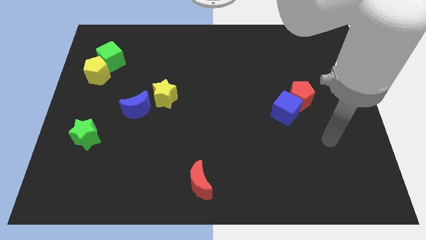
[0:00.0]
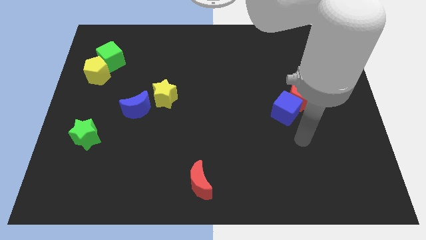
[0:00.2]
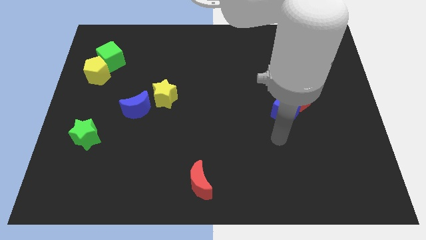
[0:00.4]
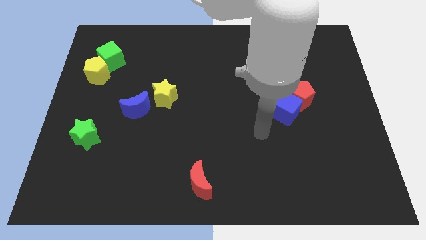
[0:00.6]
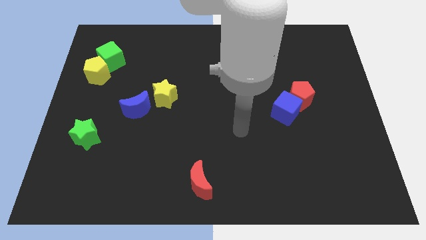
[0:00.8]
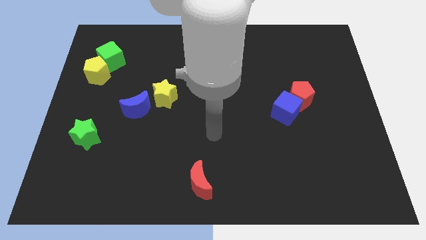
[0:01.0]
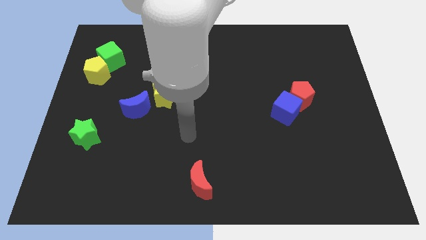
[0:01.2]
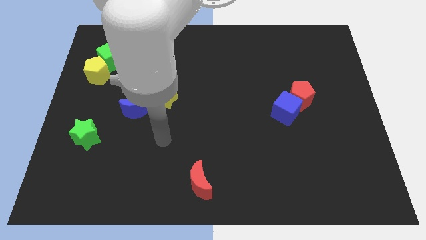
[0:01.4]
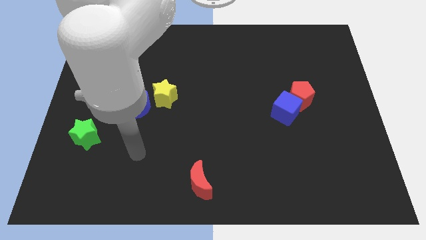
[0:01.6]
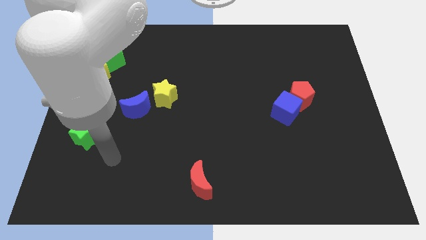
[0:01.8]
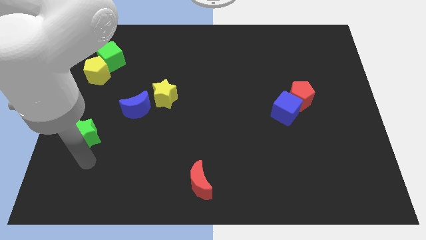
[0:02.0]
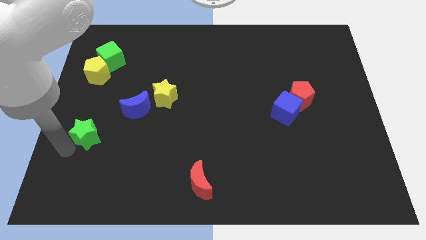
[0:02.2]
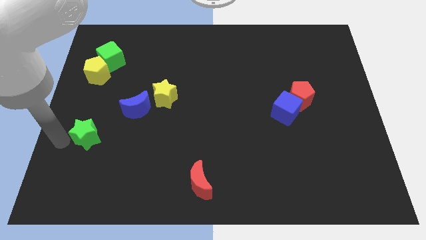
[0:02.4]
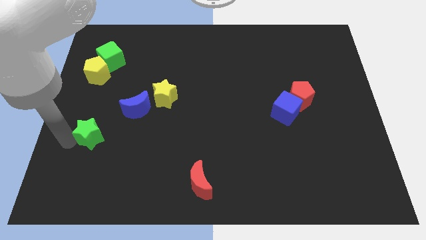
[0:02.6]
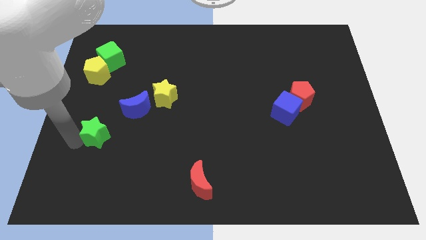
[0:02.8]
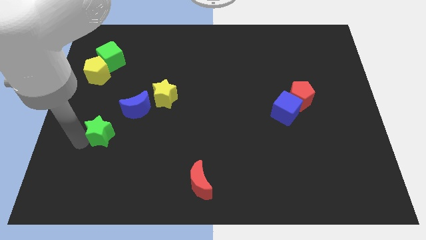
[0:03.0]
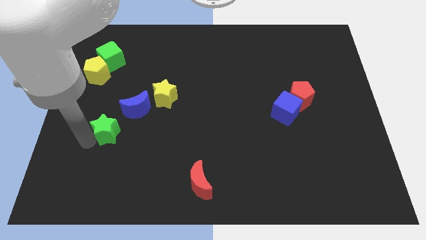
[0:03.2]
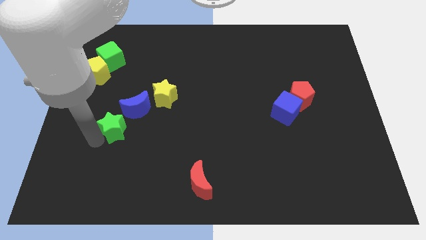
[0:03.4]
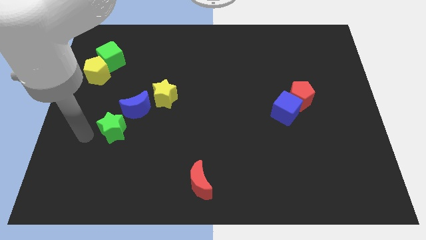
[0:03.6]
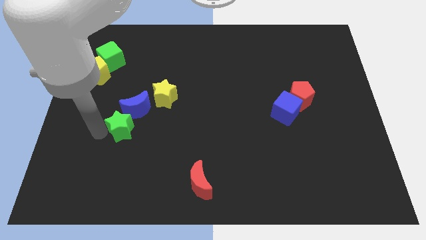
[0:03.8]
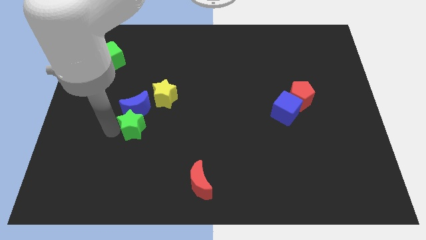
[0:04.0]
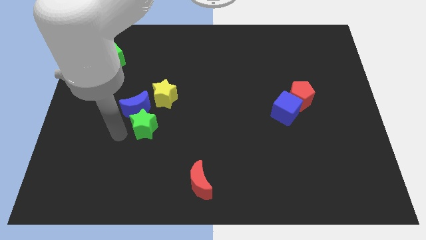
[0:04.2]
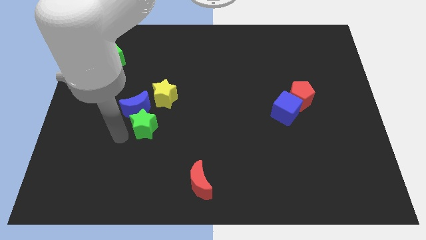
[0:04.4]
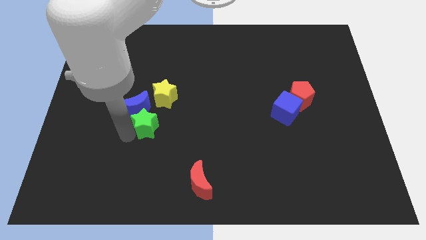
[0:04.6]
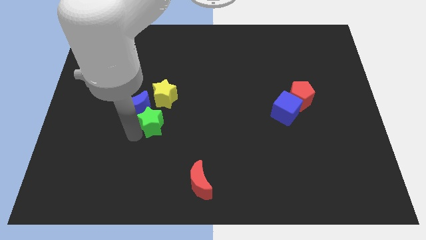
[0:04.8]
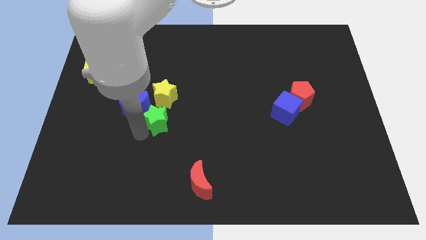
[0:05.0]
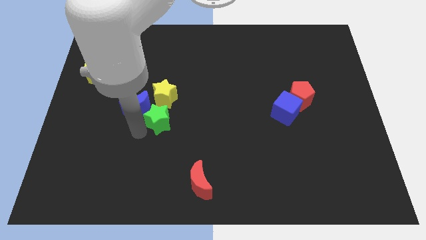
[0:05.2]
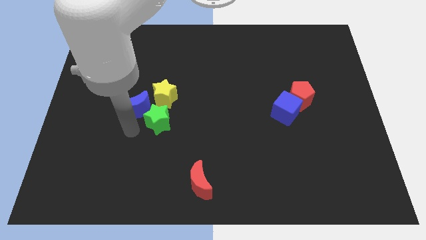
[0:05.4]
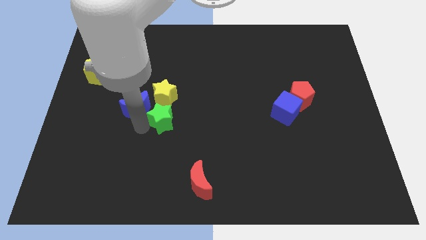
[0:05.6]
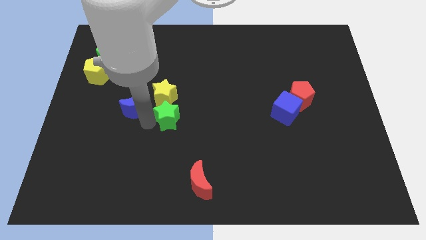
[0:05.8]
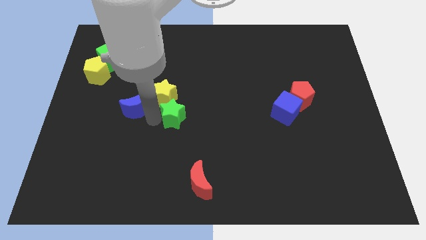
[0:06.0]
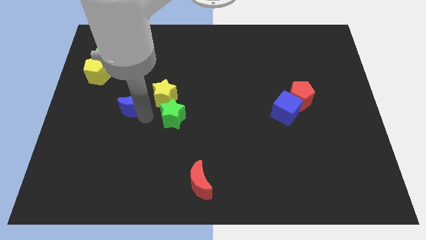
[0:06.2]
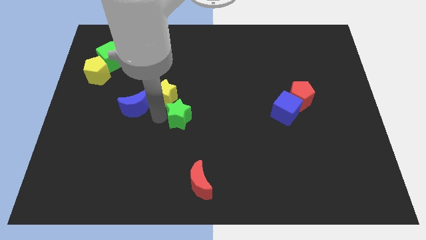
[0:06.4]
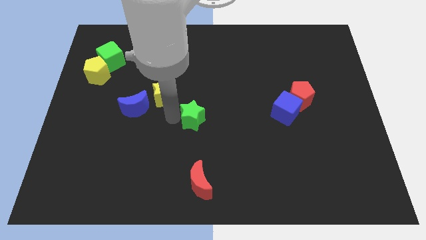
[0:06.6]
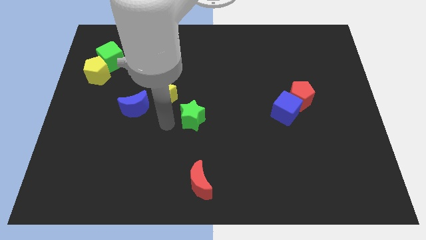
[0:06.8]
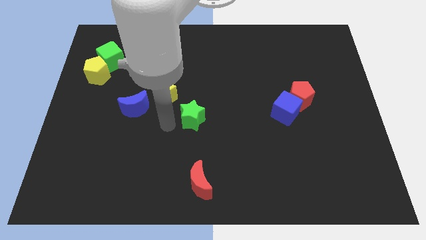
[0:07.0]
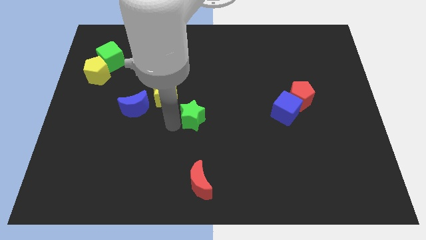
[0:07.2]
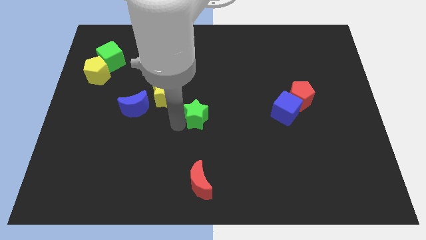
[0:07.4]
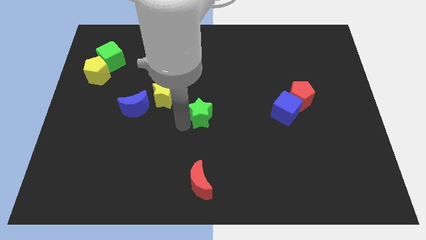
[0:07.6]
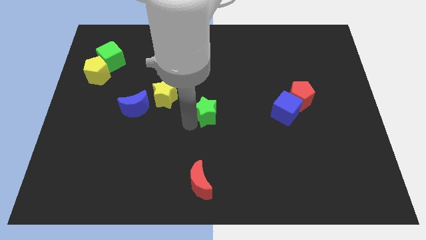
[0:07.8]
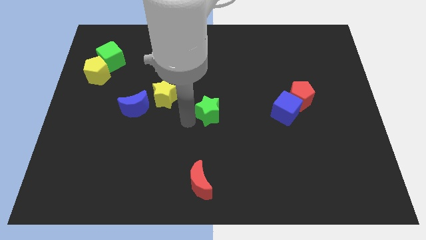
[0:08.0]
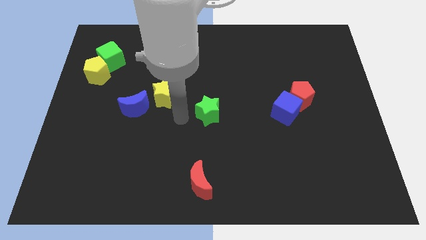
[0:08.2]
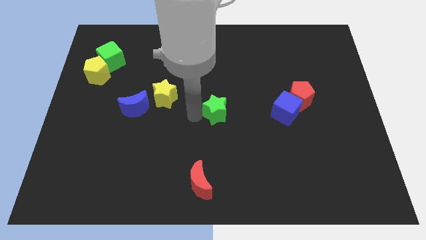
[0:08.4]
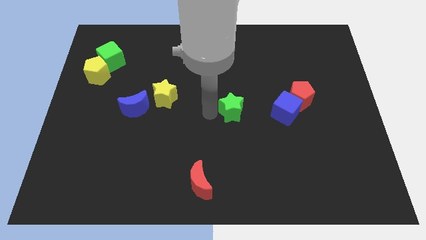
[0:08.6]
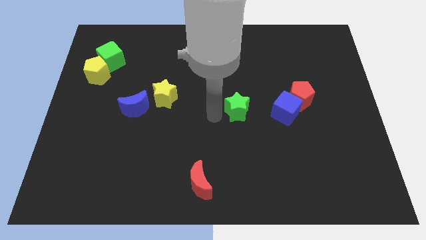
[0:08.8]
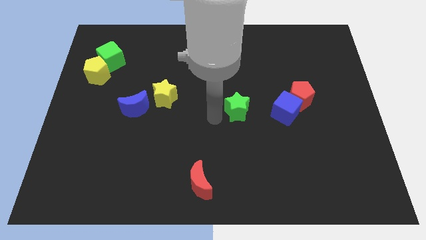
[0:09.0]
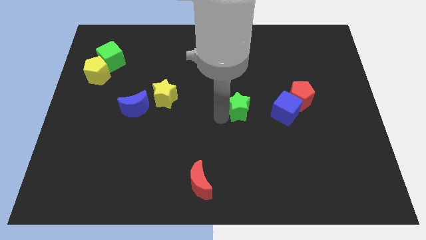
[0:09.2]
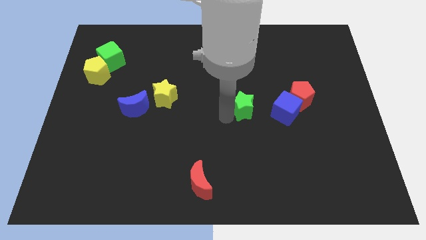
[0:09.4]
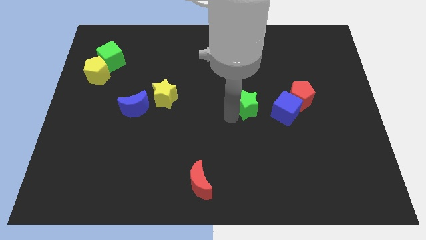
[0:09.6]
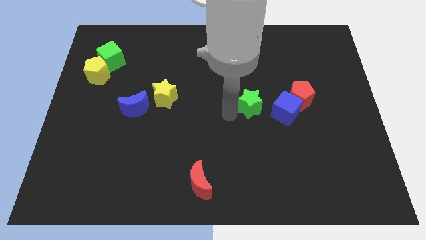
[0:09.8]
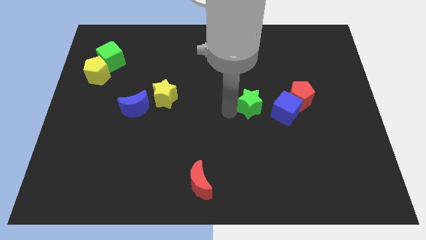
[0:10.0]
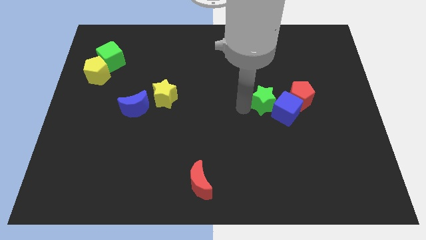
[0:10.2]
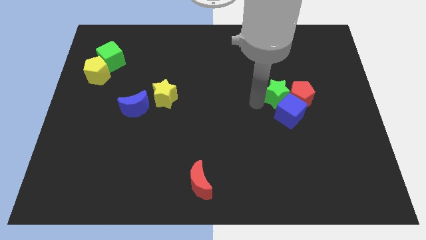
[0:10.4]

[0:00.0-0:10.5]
put the green star close to the red pentagon

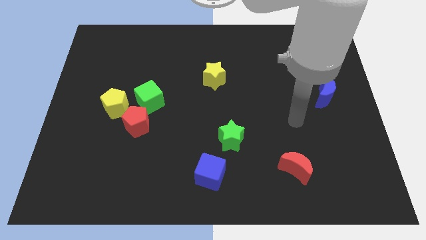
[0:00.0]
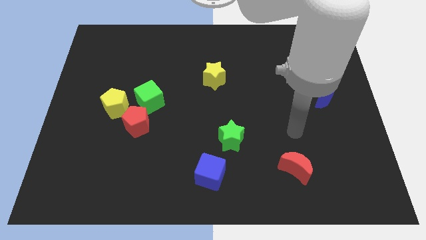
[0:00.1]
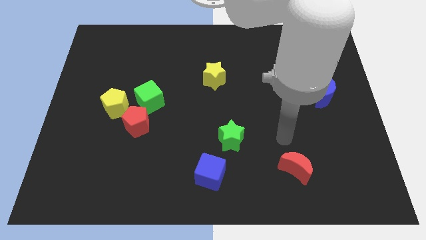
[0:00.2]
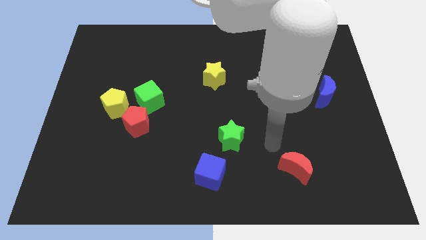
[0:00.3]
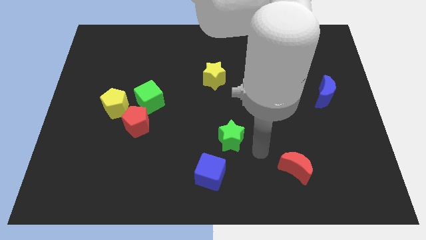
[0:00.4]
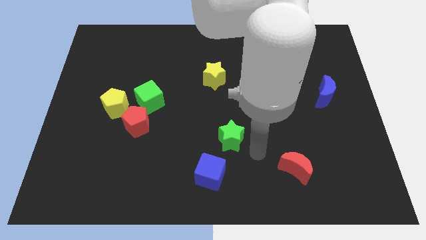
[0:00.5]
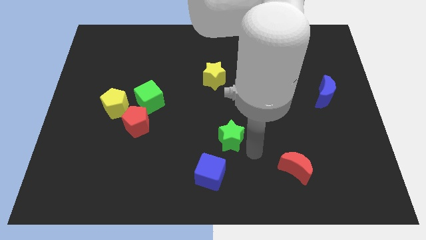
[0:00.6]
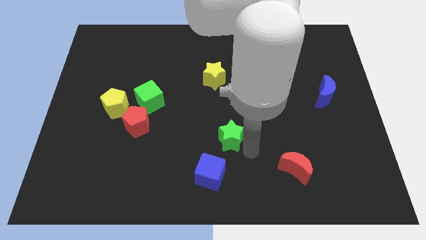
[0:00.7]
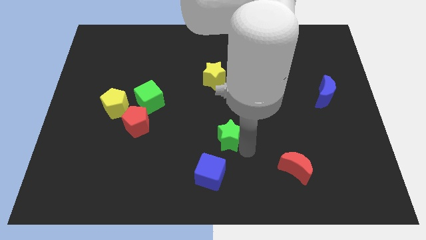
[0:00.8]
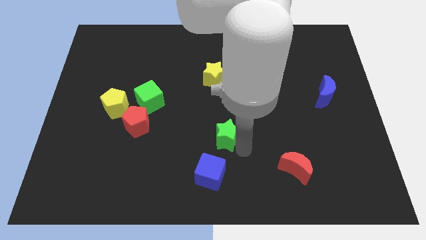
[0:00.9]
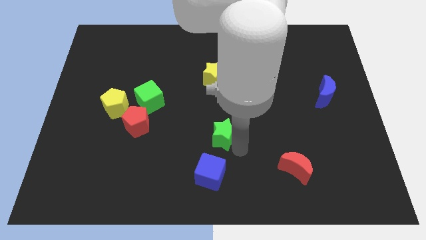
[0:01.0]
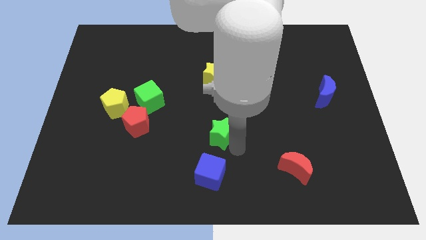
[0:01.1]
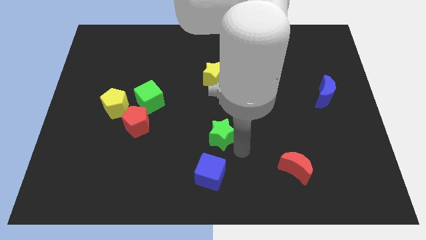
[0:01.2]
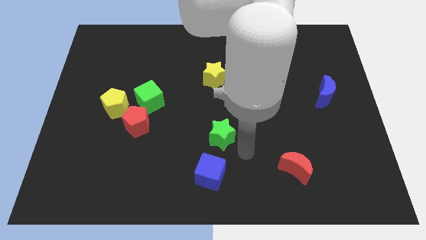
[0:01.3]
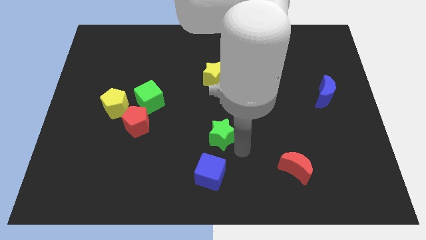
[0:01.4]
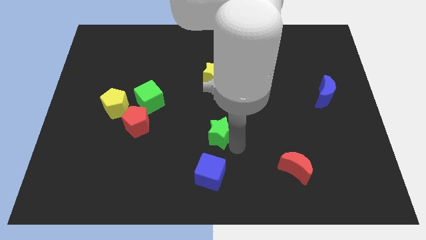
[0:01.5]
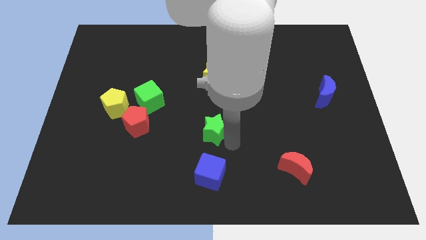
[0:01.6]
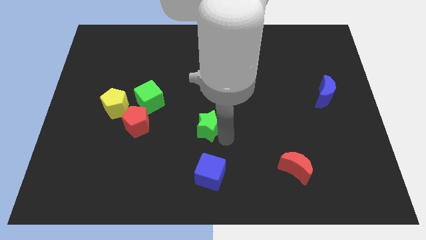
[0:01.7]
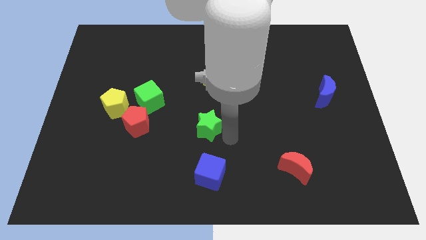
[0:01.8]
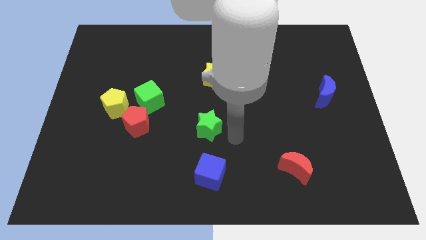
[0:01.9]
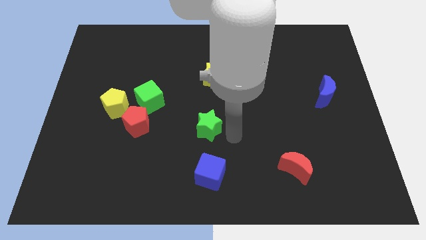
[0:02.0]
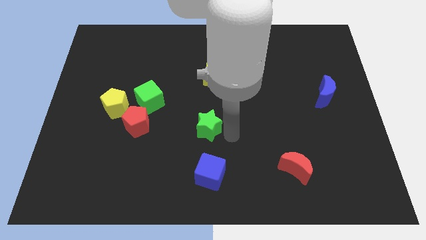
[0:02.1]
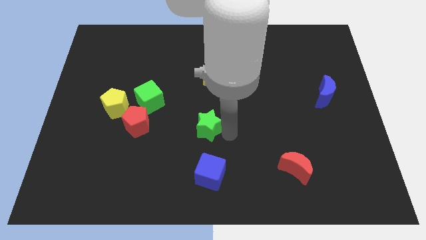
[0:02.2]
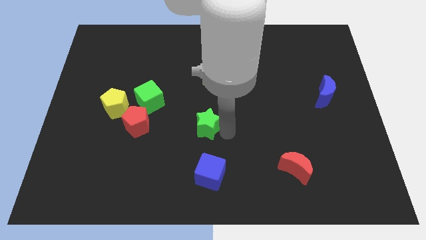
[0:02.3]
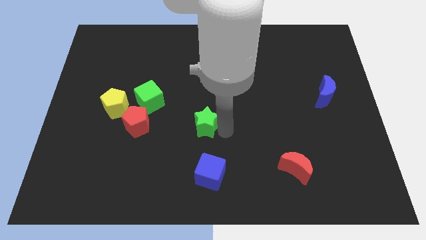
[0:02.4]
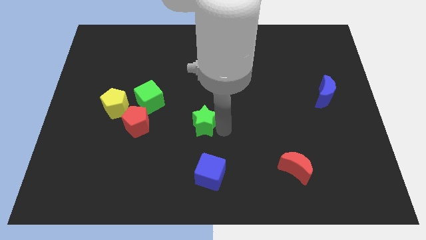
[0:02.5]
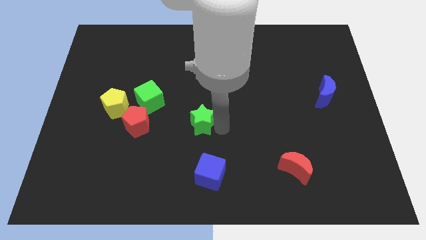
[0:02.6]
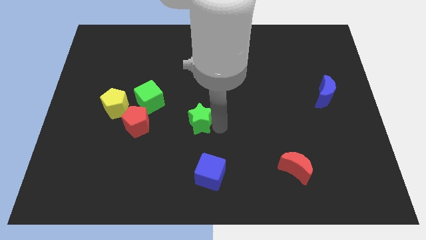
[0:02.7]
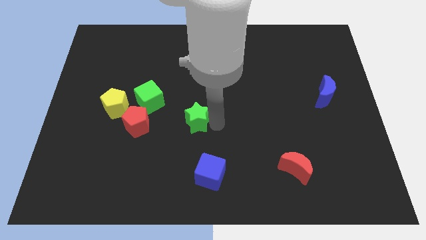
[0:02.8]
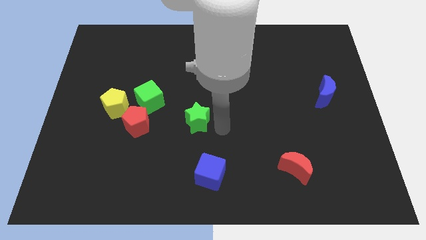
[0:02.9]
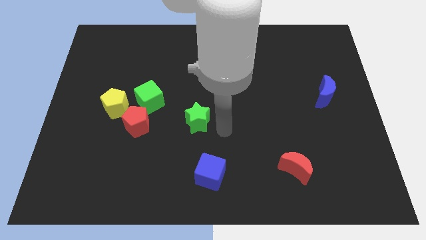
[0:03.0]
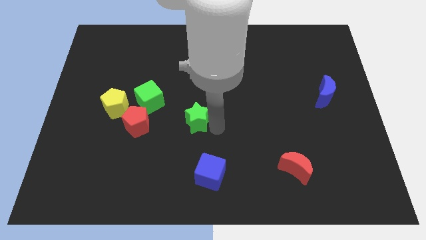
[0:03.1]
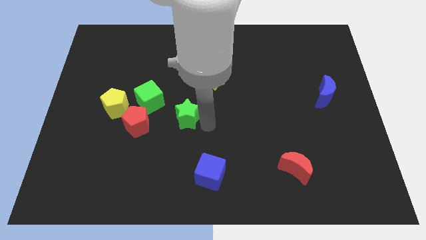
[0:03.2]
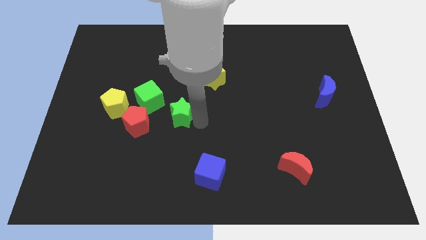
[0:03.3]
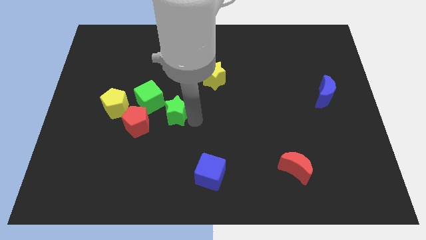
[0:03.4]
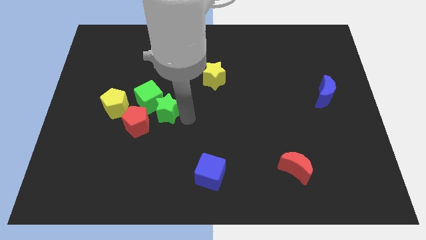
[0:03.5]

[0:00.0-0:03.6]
push the green star close to the green cube
